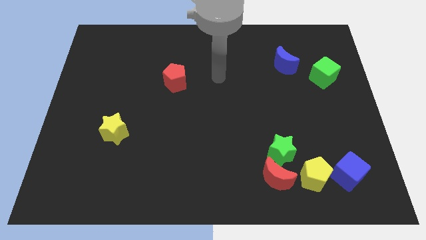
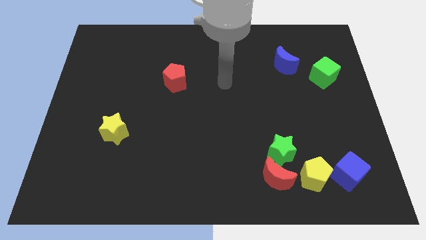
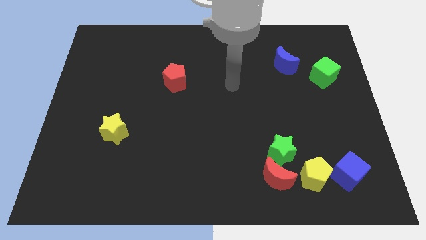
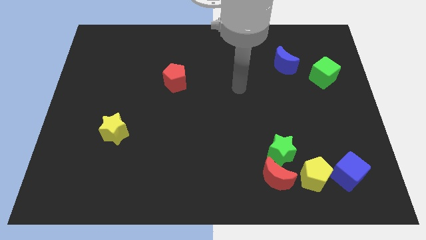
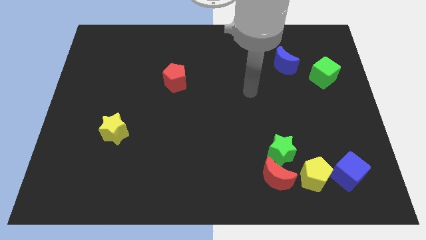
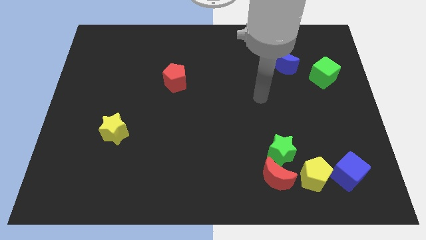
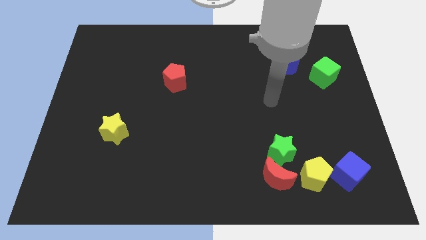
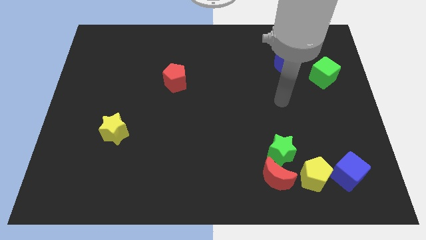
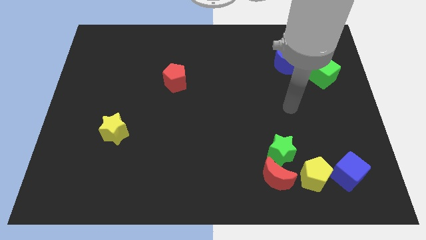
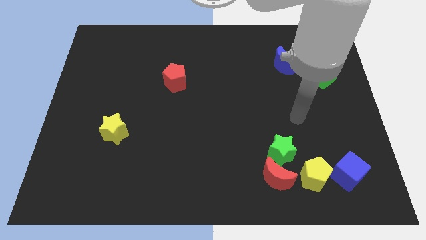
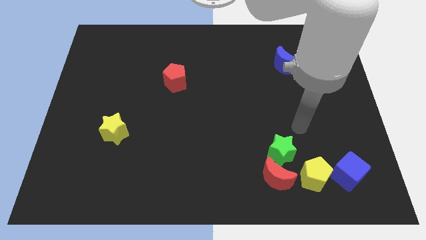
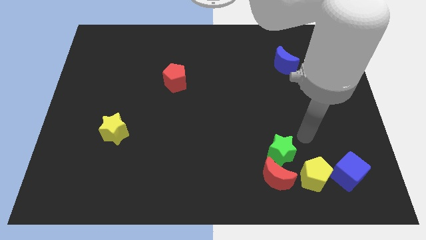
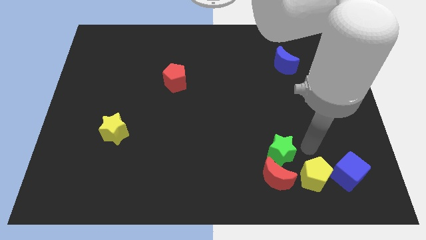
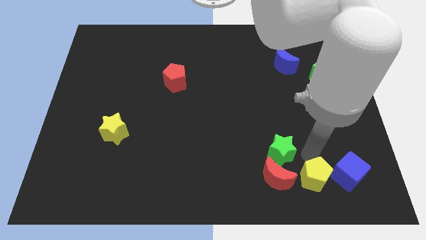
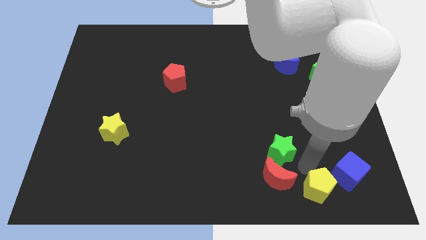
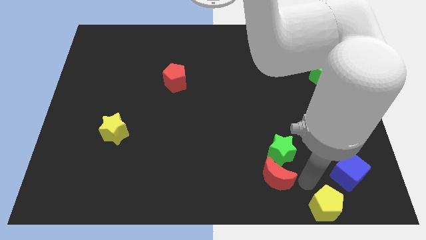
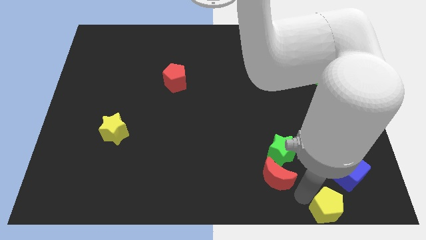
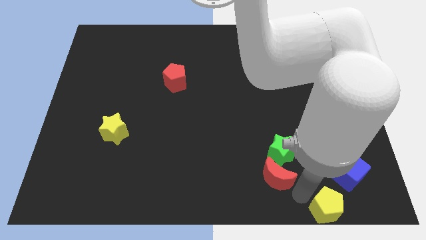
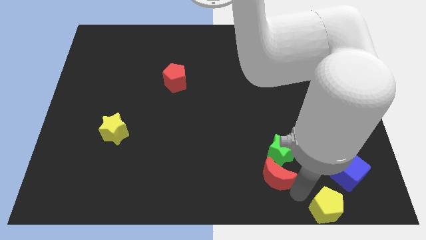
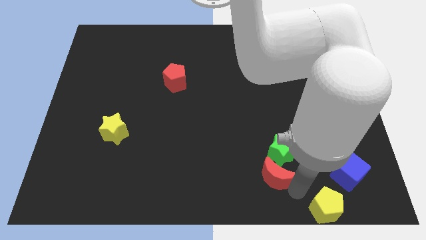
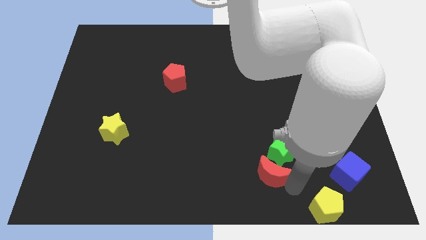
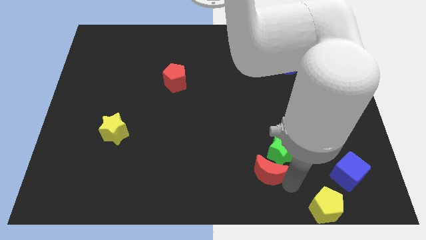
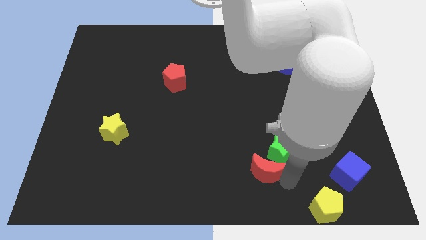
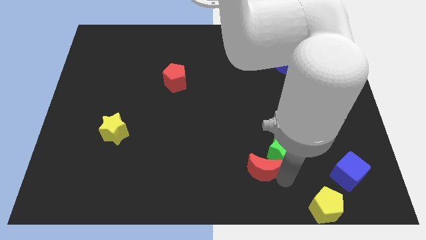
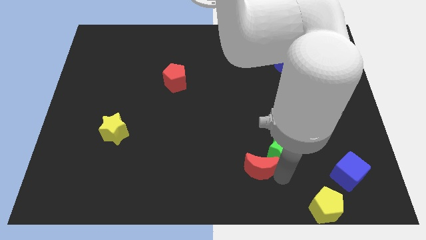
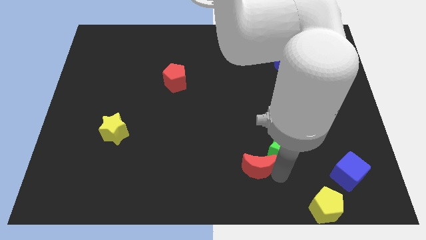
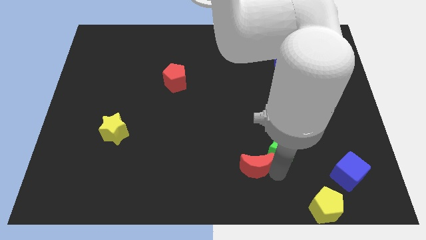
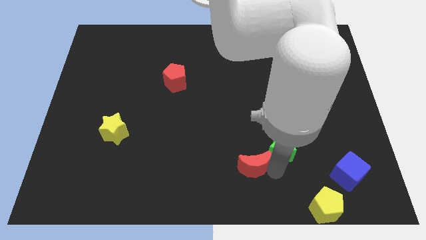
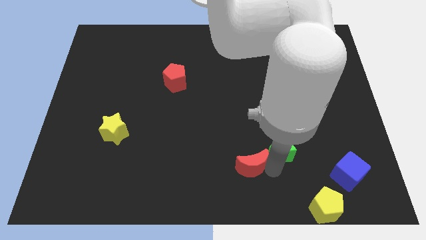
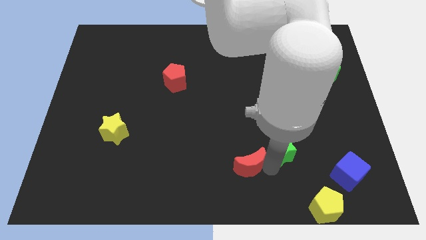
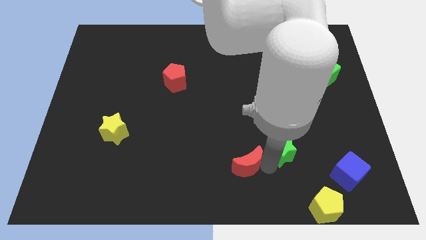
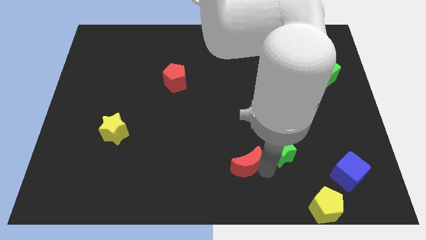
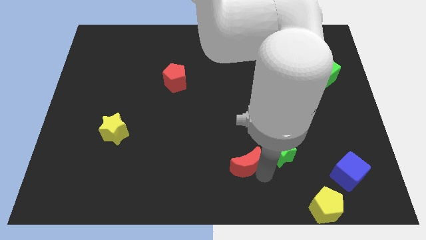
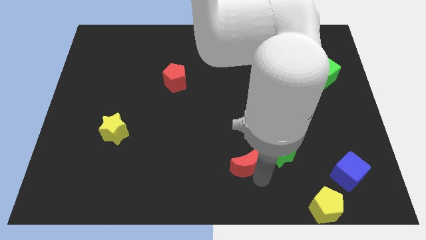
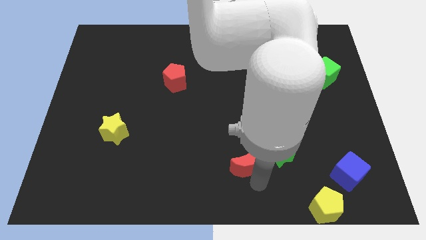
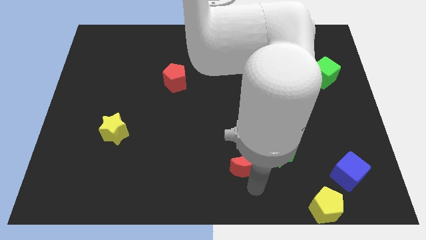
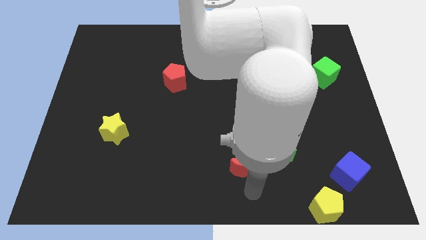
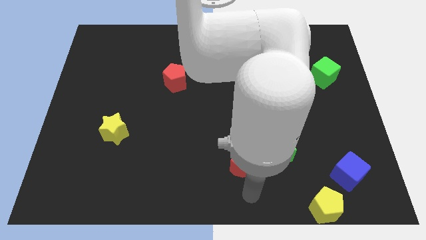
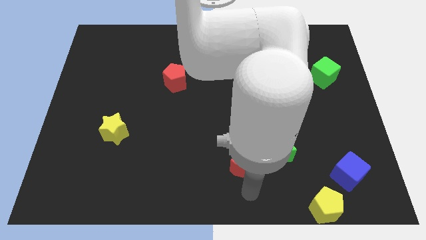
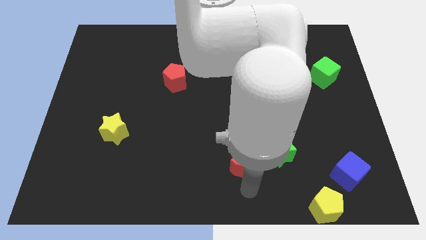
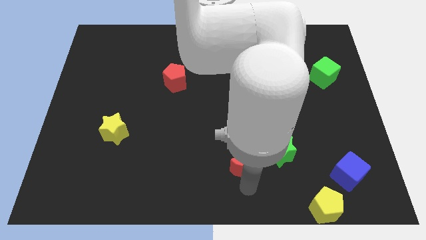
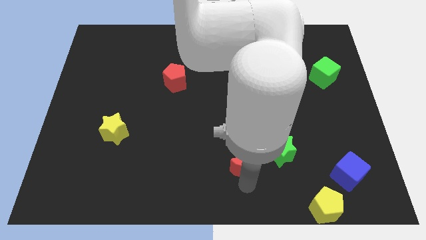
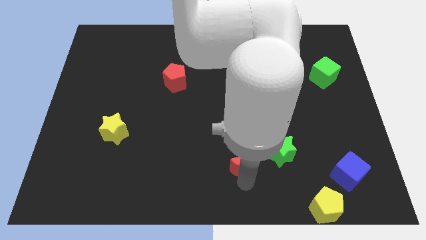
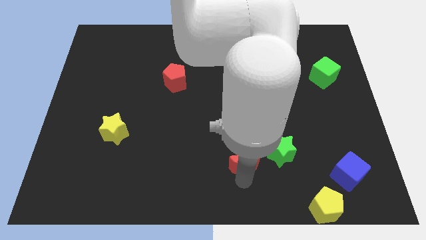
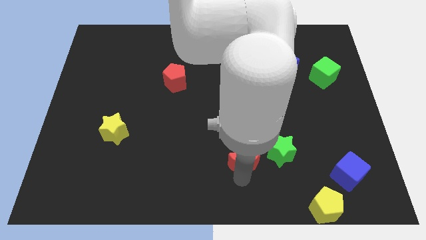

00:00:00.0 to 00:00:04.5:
push the red moon a little bit upwards and left diagonally

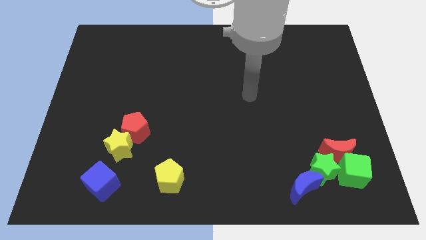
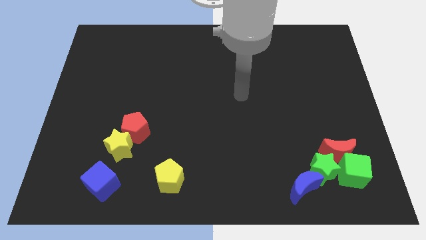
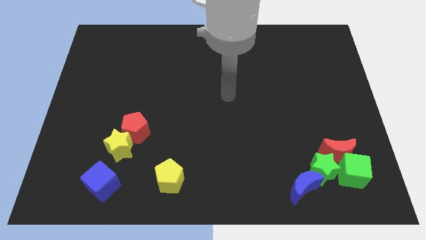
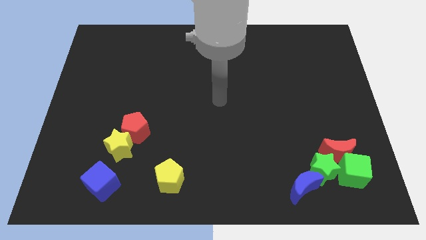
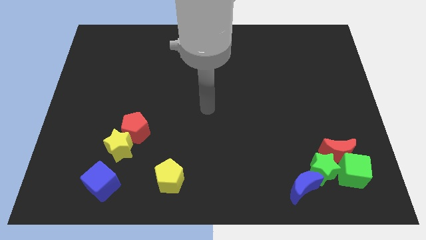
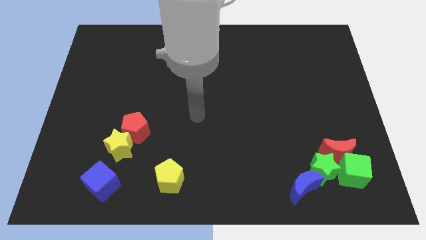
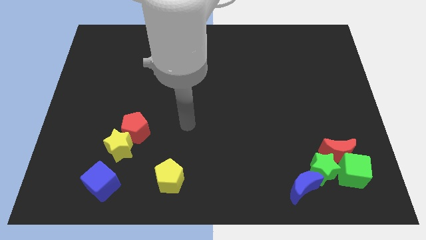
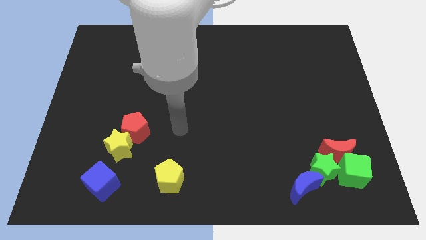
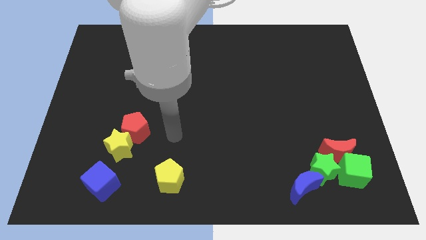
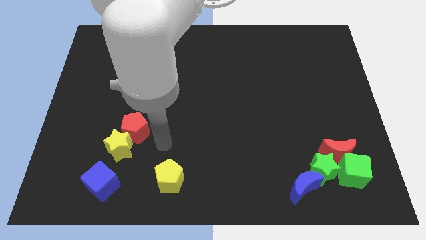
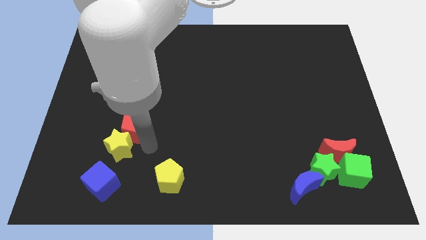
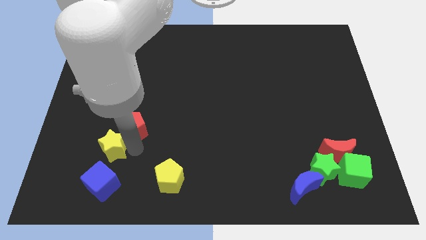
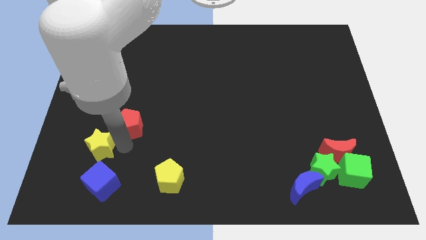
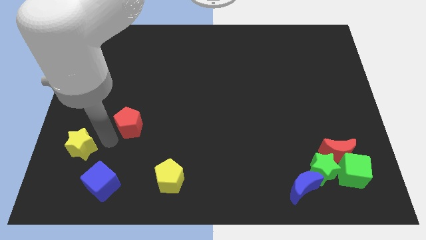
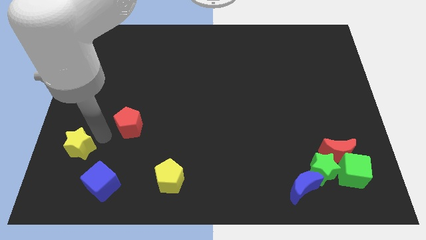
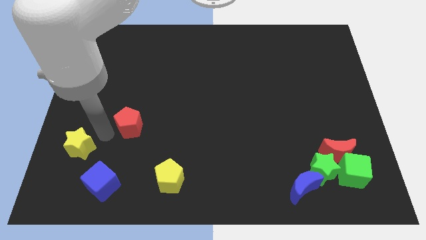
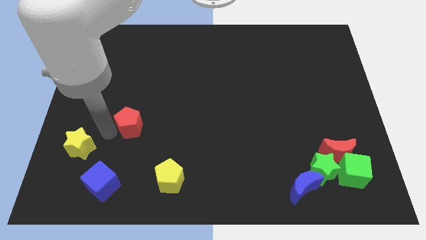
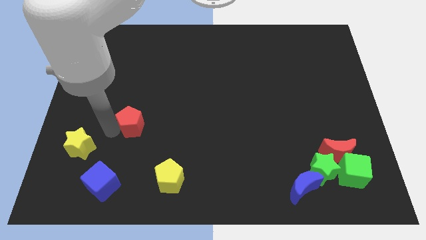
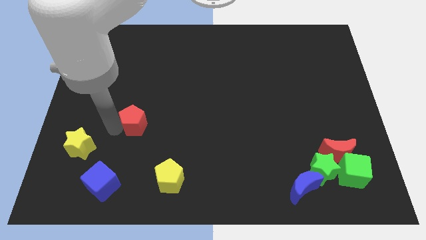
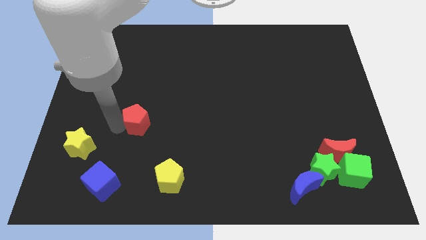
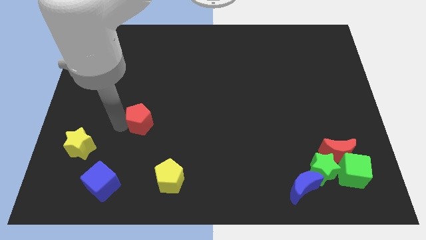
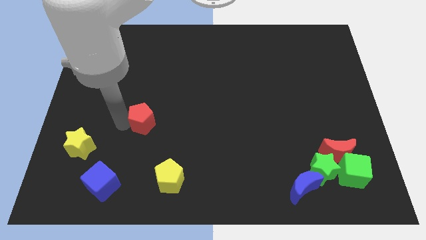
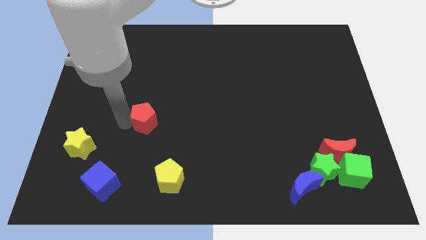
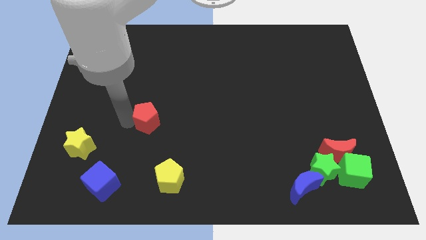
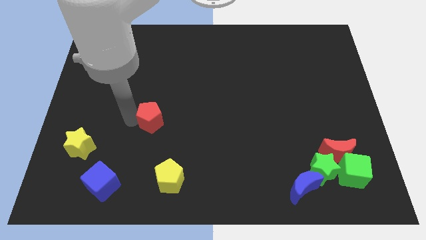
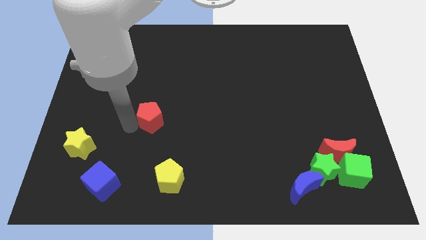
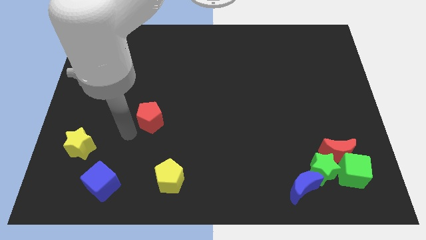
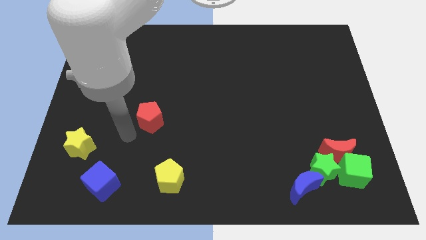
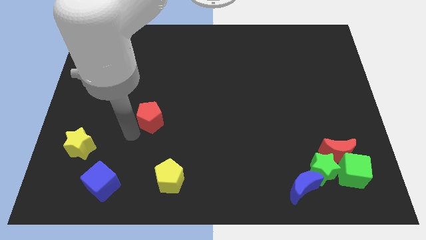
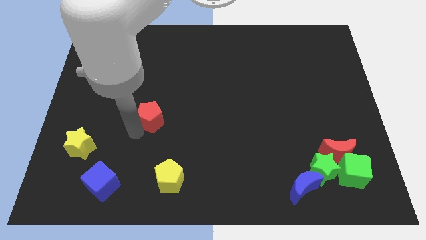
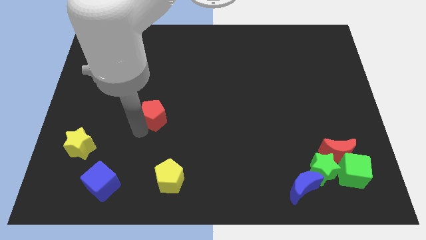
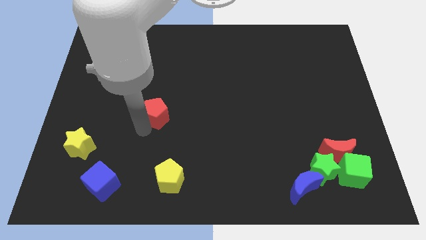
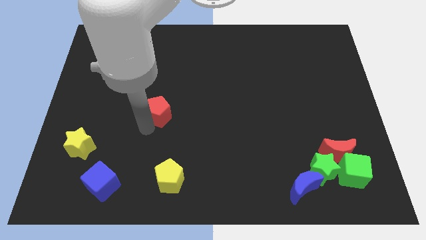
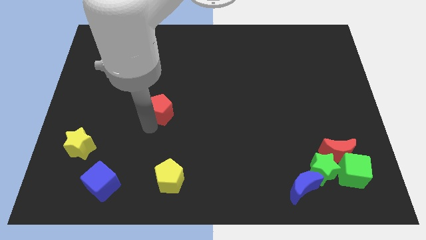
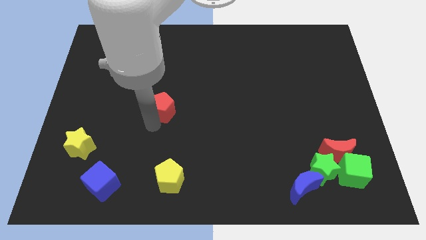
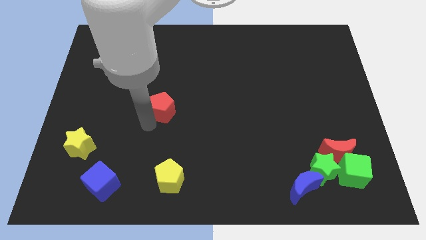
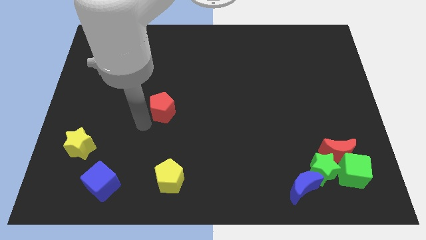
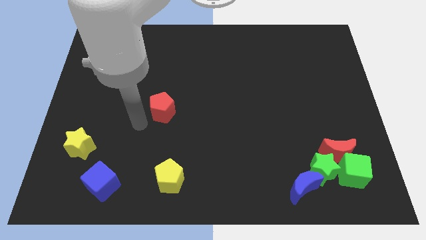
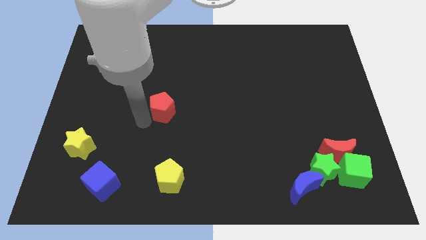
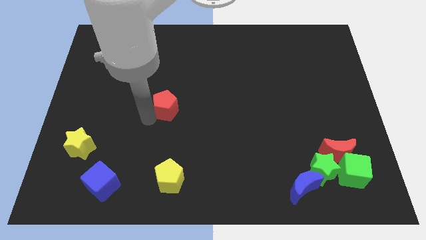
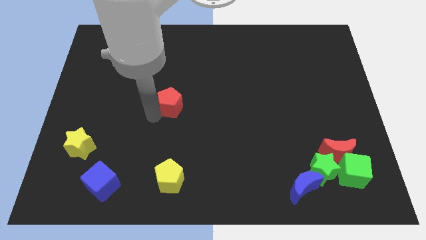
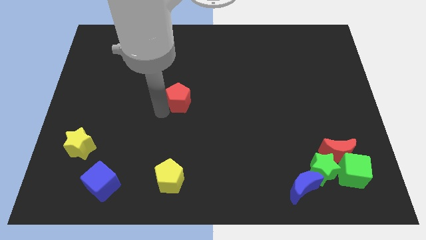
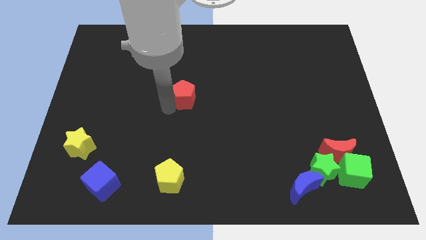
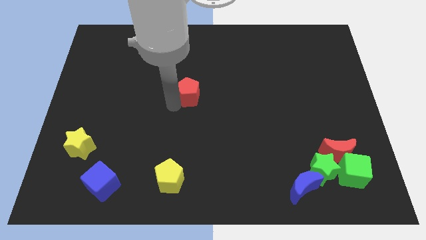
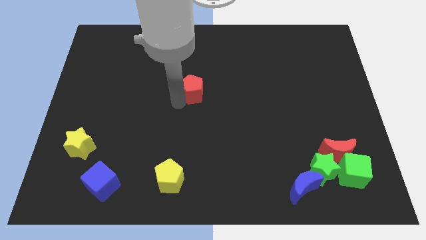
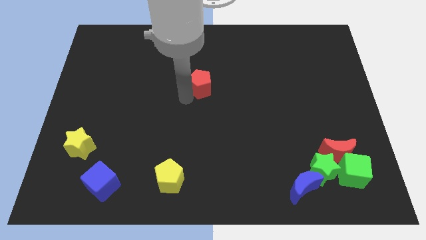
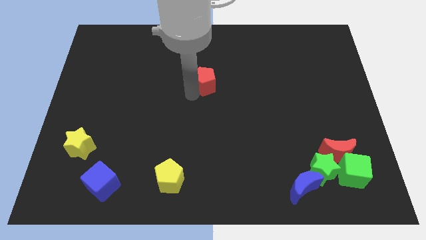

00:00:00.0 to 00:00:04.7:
slide the red pentagon up and right
